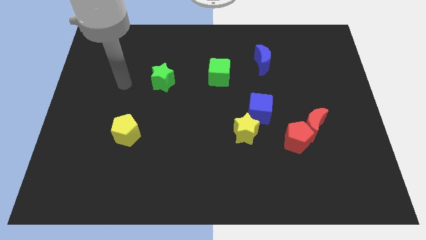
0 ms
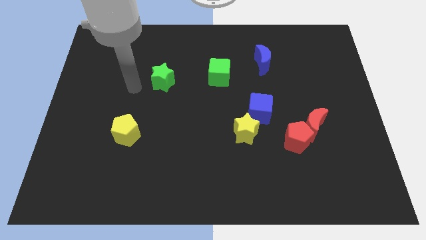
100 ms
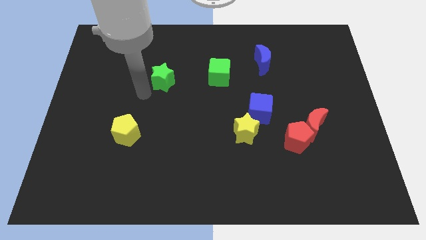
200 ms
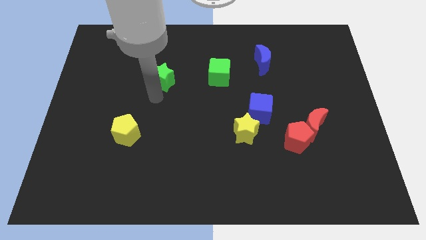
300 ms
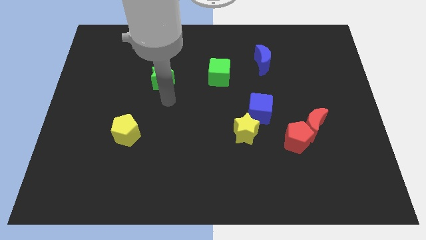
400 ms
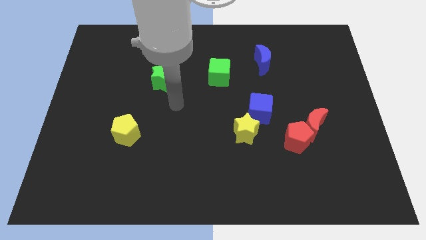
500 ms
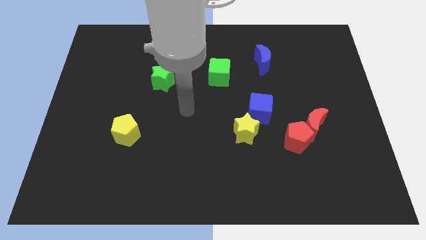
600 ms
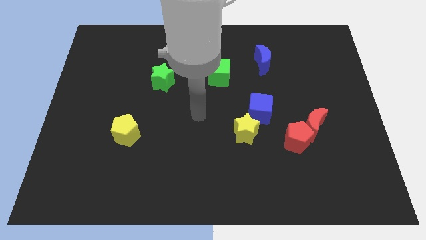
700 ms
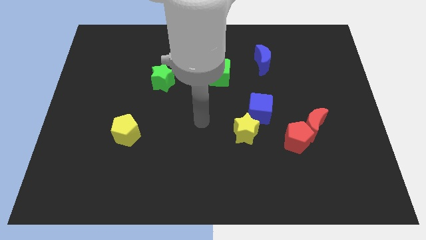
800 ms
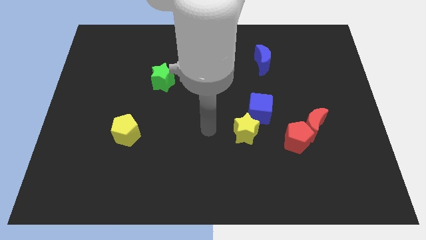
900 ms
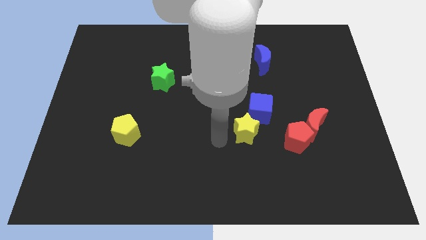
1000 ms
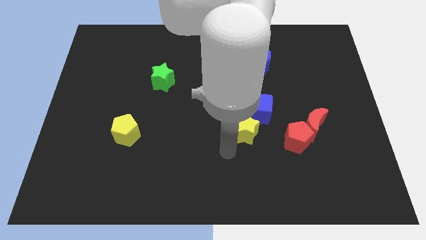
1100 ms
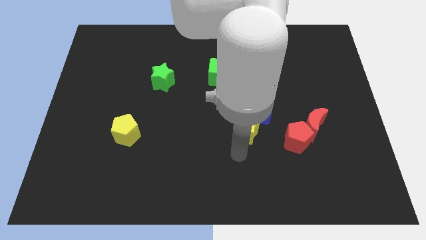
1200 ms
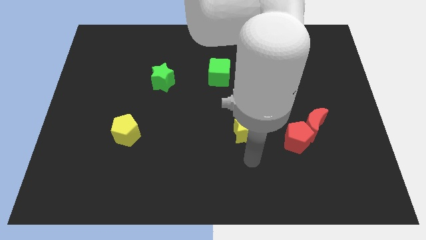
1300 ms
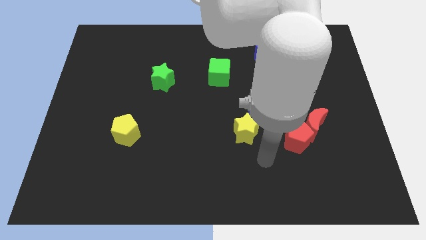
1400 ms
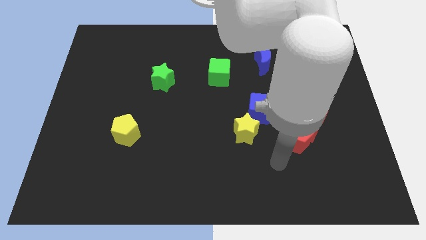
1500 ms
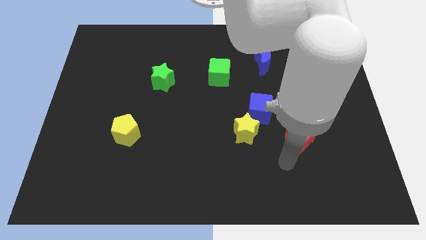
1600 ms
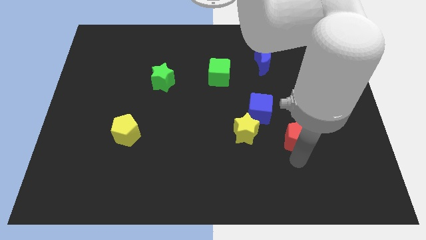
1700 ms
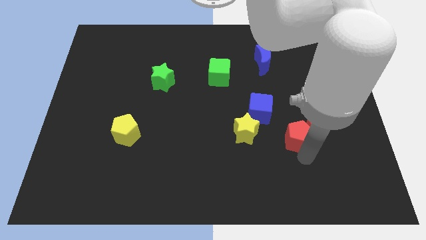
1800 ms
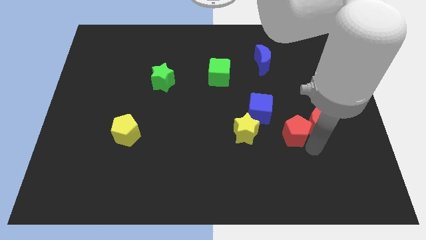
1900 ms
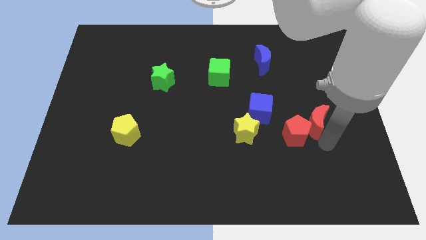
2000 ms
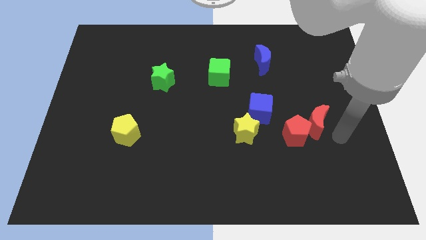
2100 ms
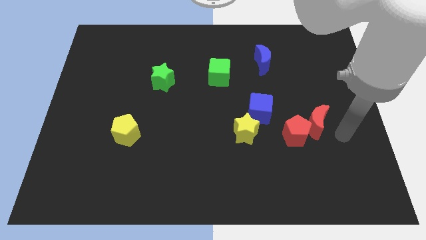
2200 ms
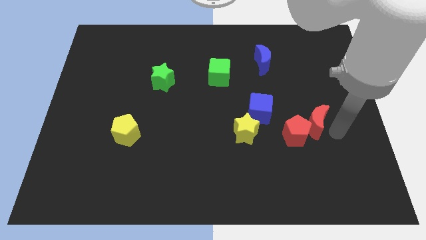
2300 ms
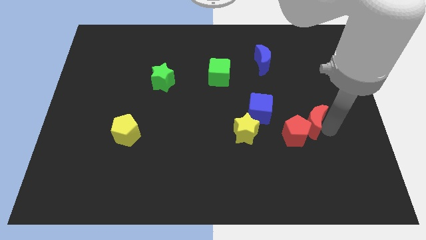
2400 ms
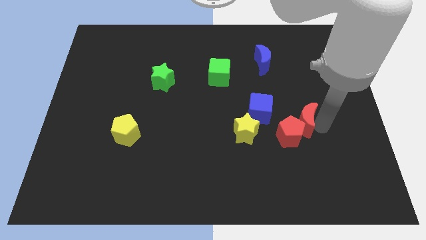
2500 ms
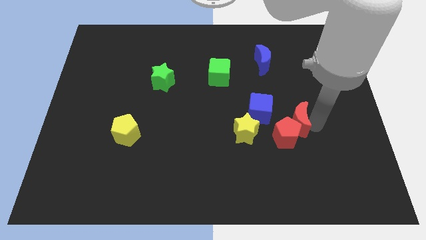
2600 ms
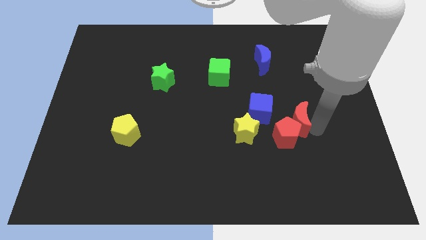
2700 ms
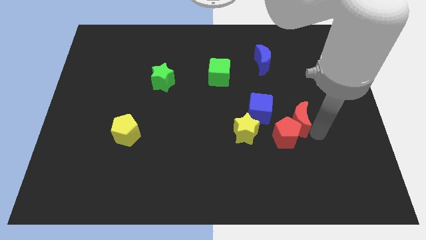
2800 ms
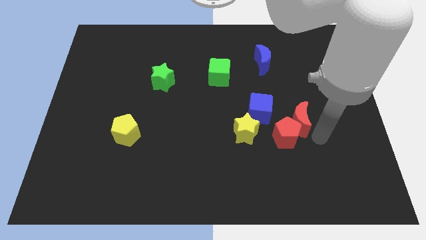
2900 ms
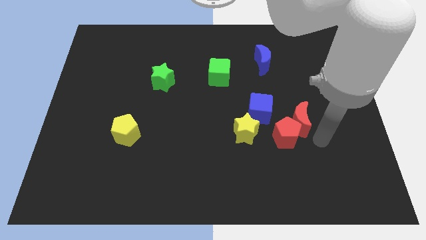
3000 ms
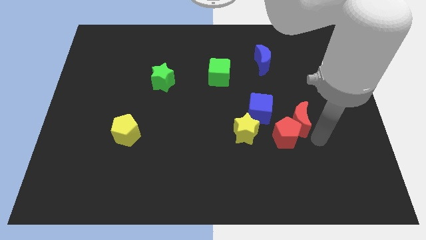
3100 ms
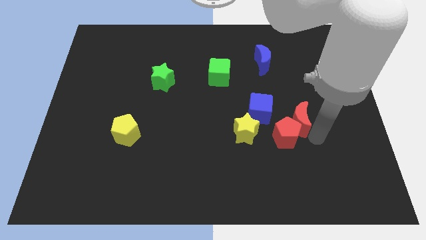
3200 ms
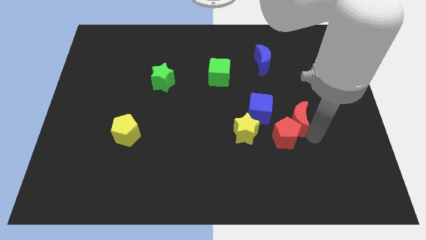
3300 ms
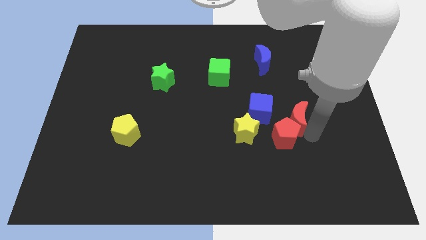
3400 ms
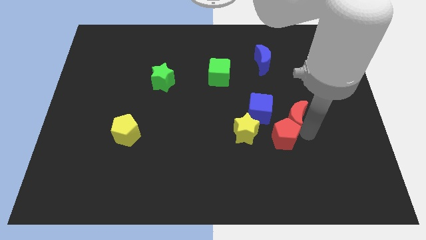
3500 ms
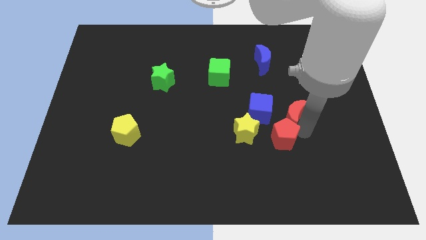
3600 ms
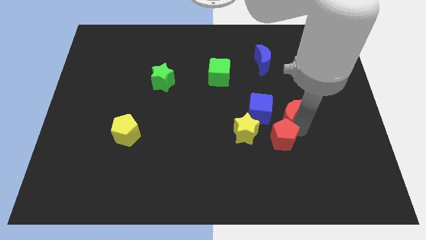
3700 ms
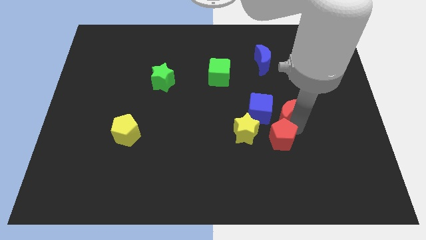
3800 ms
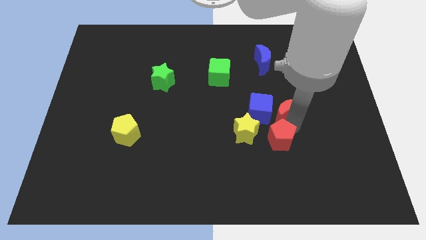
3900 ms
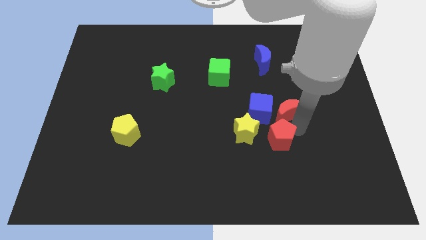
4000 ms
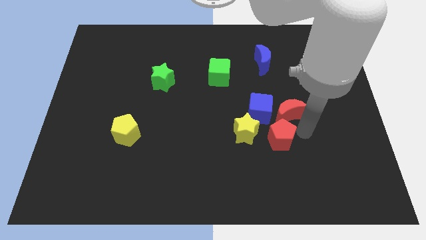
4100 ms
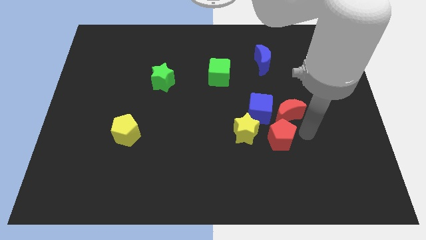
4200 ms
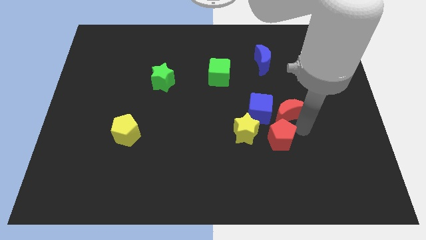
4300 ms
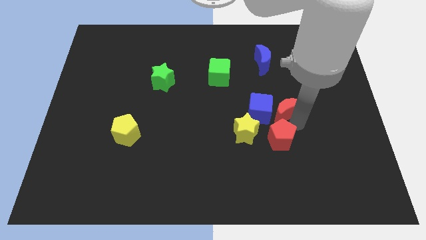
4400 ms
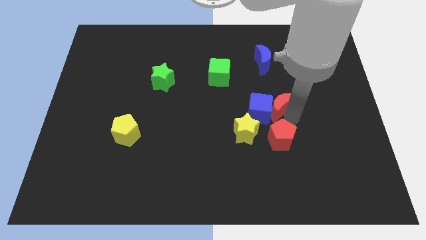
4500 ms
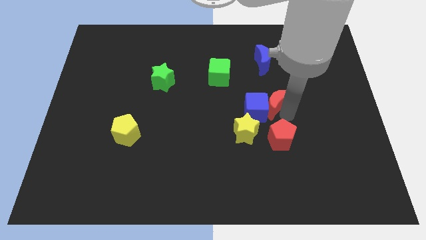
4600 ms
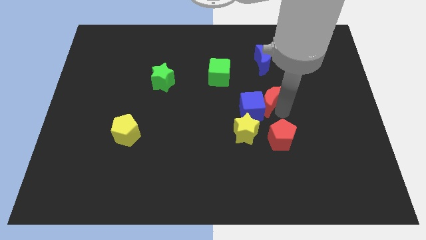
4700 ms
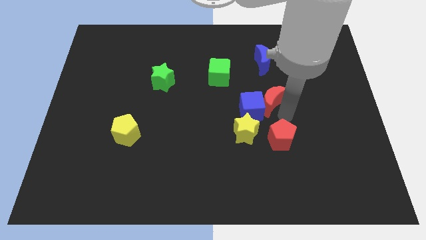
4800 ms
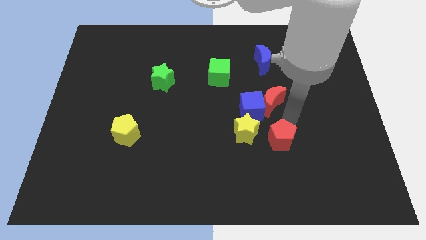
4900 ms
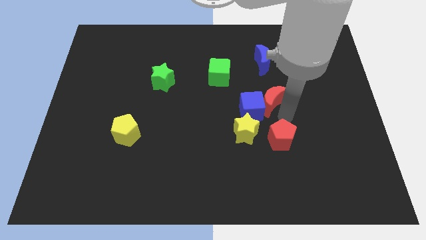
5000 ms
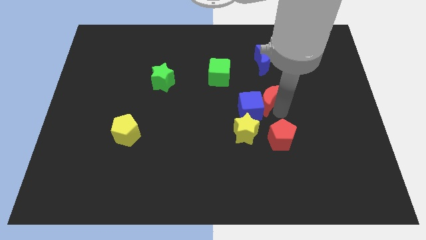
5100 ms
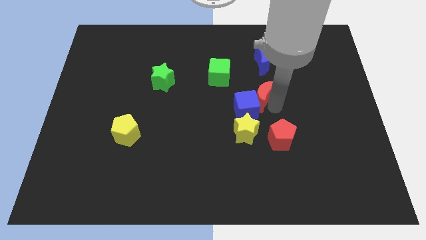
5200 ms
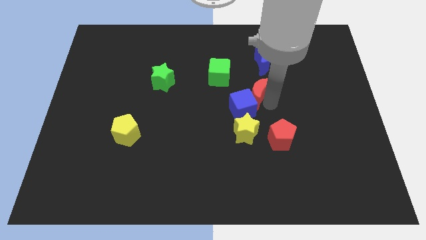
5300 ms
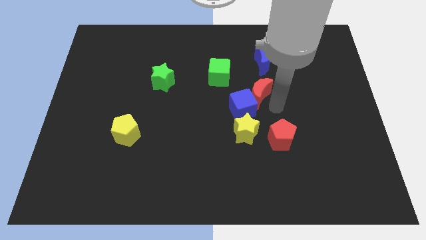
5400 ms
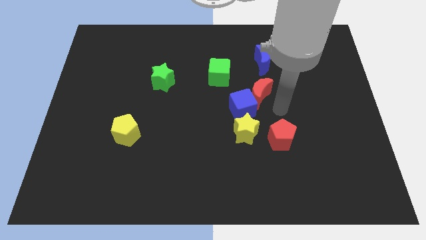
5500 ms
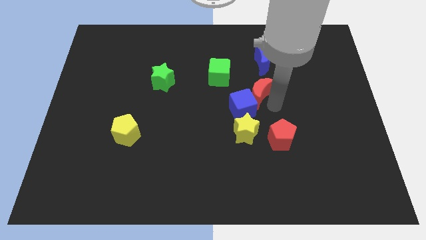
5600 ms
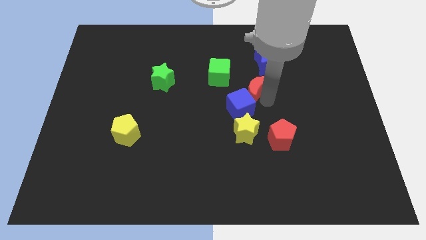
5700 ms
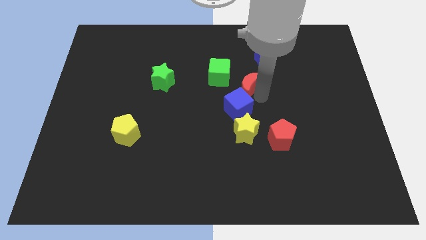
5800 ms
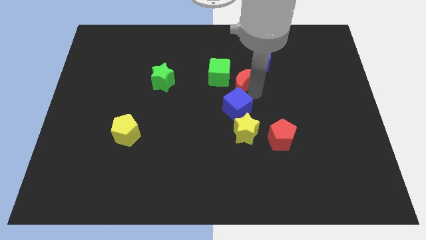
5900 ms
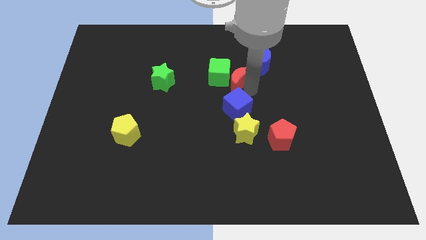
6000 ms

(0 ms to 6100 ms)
slide the red moon towards the green cube

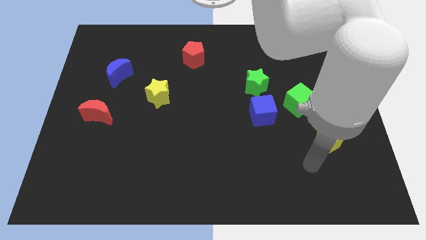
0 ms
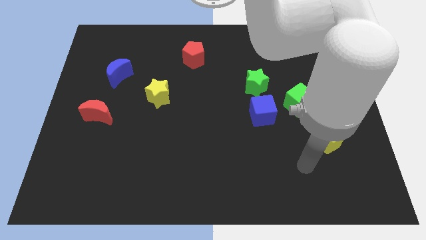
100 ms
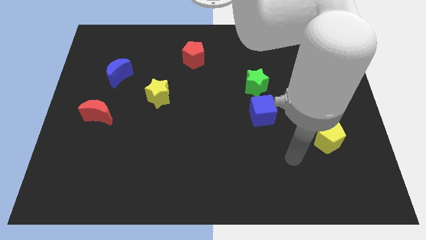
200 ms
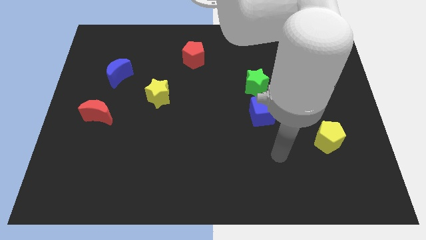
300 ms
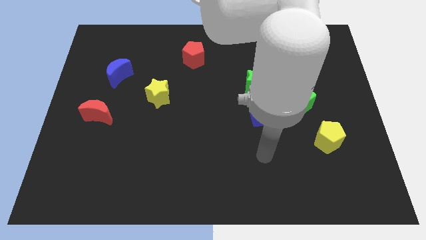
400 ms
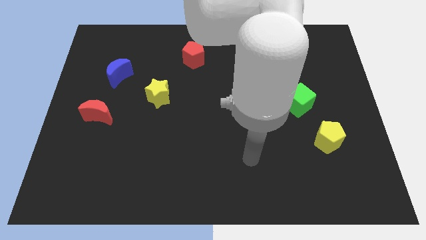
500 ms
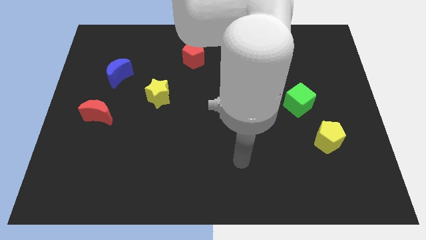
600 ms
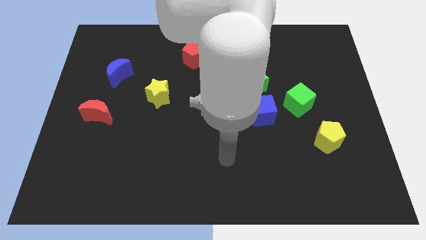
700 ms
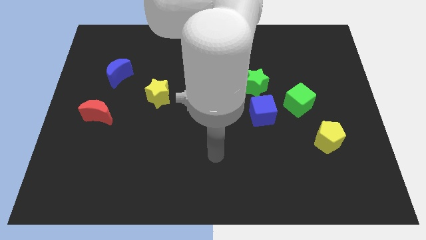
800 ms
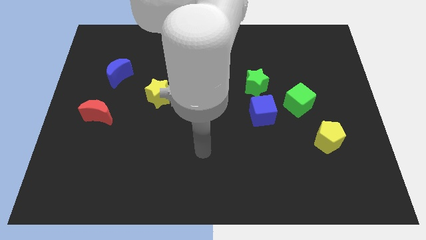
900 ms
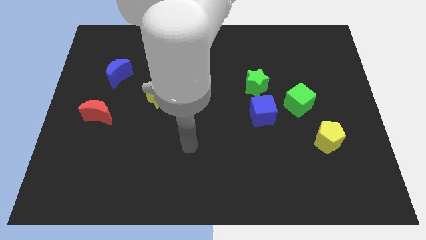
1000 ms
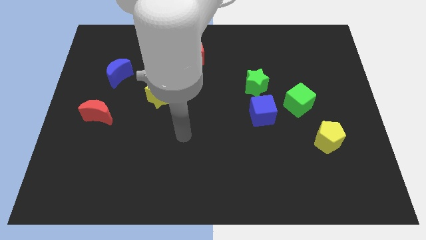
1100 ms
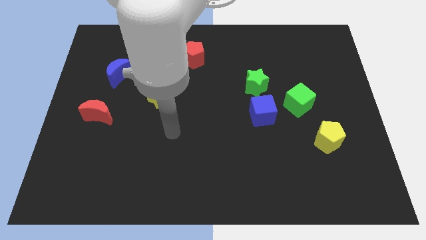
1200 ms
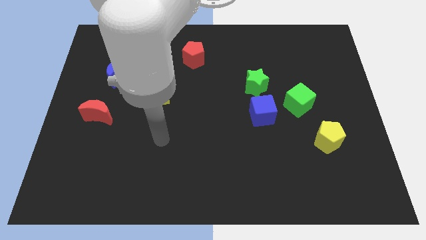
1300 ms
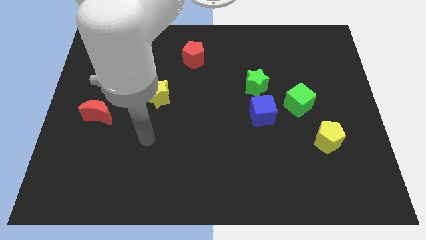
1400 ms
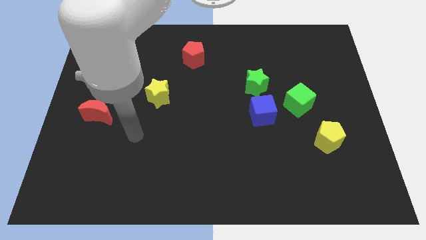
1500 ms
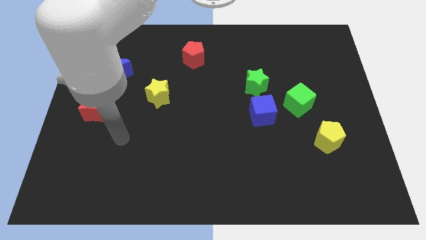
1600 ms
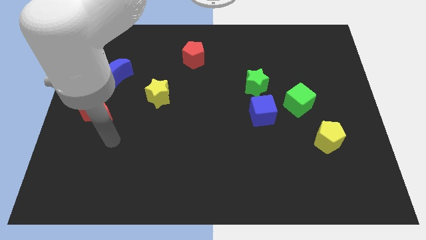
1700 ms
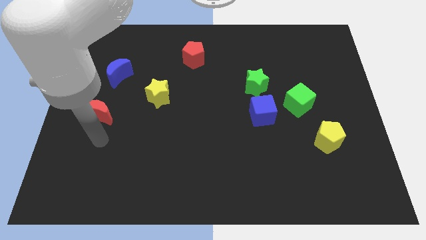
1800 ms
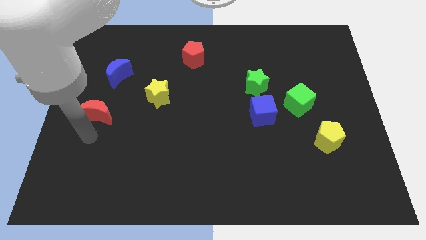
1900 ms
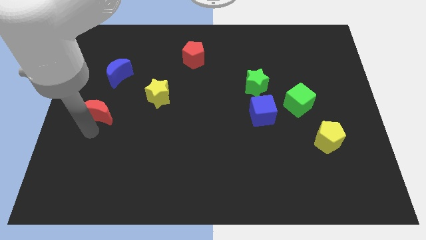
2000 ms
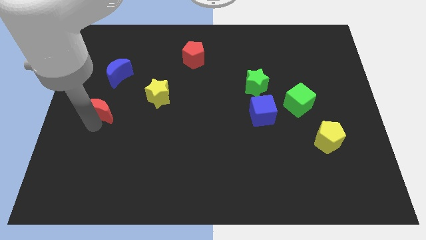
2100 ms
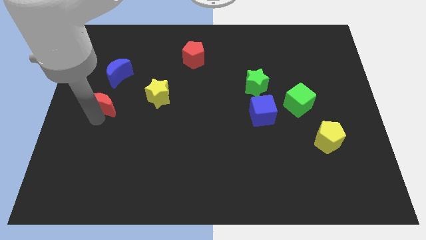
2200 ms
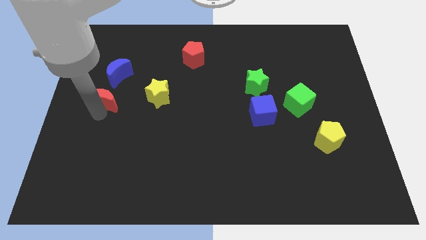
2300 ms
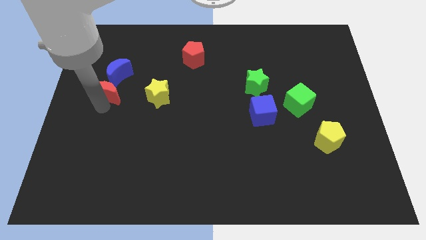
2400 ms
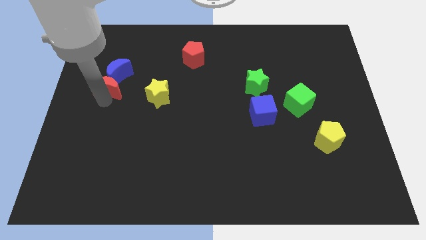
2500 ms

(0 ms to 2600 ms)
put the red moon towards the blue moon
